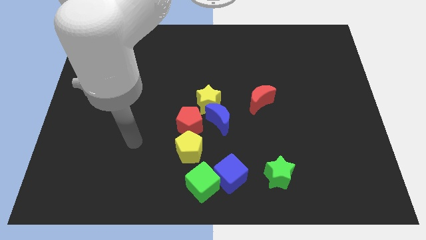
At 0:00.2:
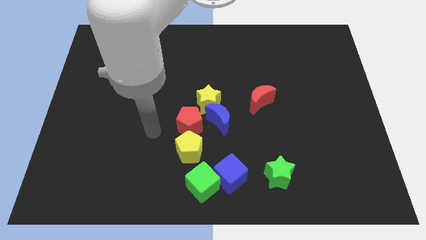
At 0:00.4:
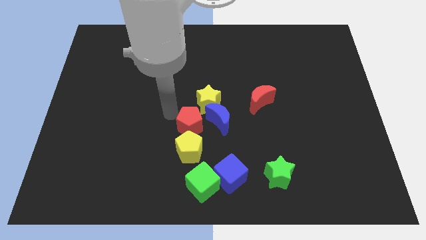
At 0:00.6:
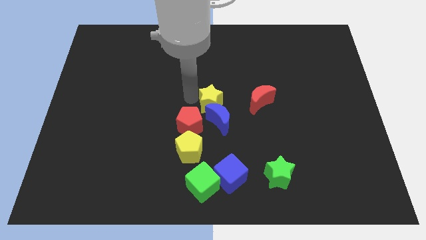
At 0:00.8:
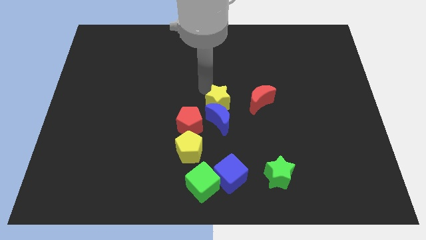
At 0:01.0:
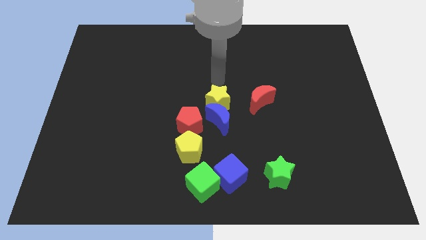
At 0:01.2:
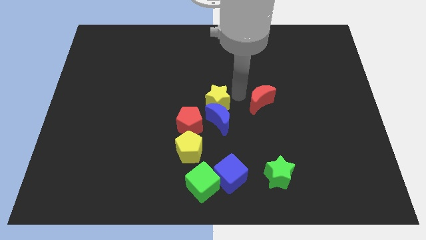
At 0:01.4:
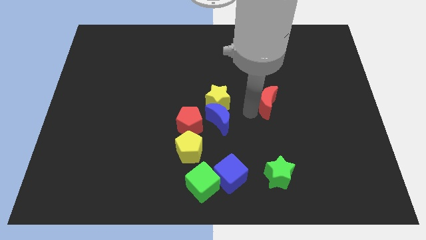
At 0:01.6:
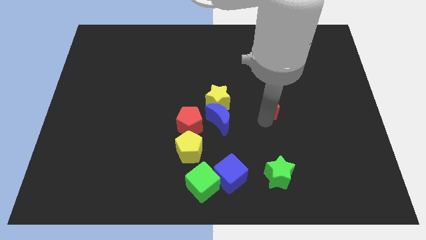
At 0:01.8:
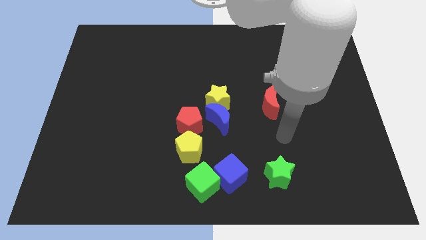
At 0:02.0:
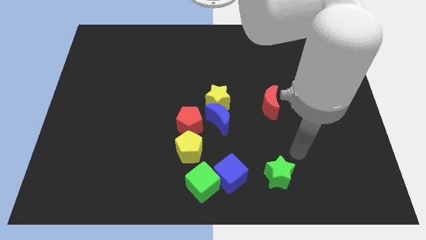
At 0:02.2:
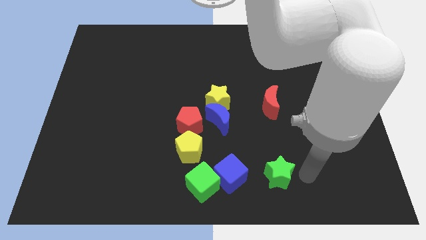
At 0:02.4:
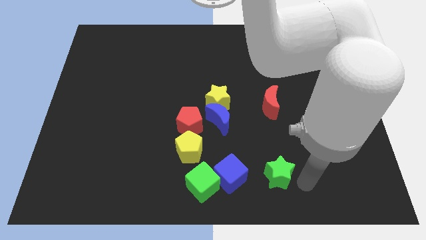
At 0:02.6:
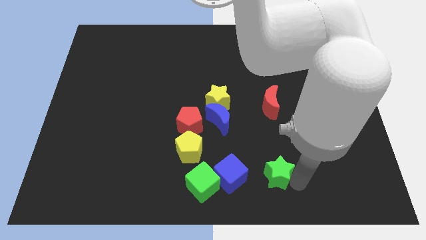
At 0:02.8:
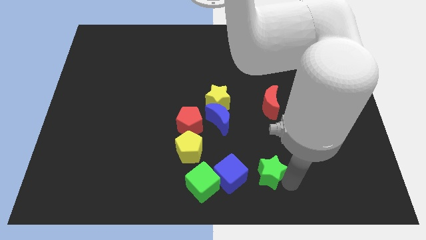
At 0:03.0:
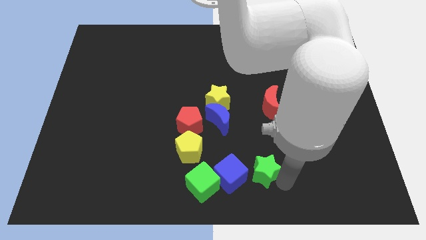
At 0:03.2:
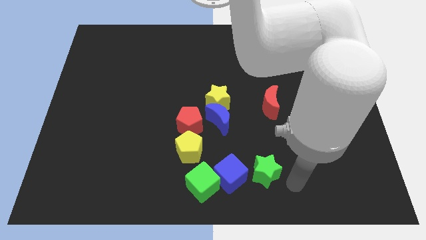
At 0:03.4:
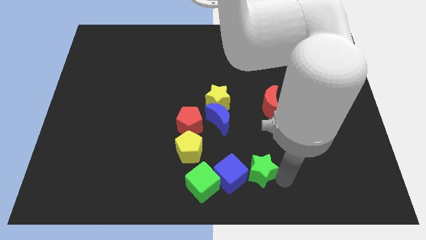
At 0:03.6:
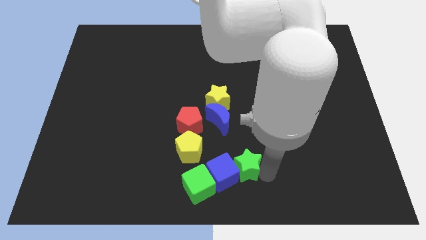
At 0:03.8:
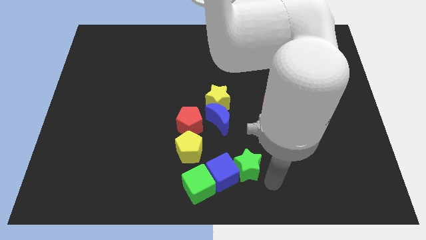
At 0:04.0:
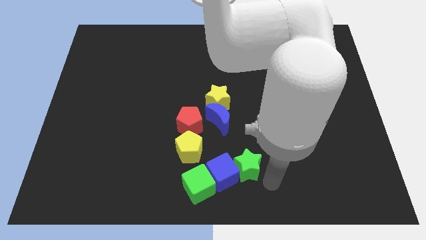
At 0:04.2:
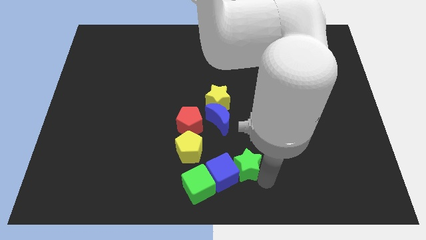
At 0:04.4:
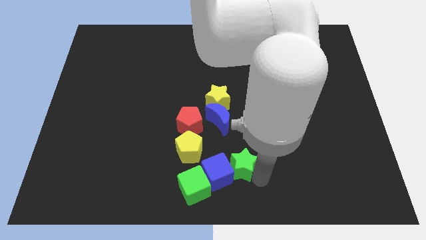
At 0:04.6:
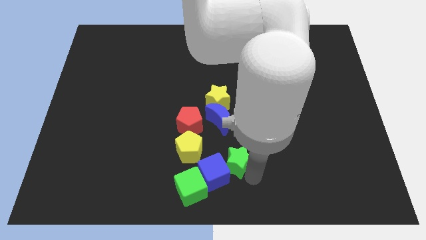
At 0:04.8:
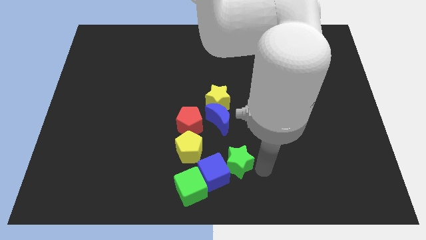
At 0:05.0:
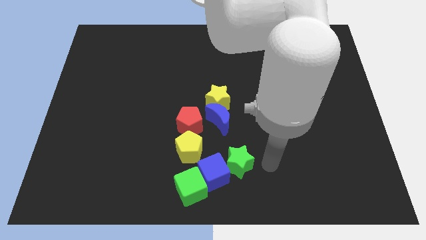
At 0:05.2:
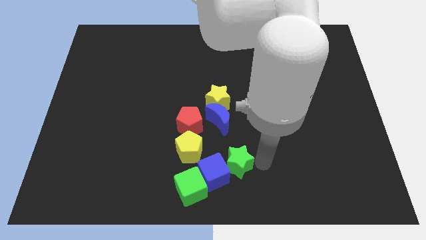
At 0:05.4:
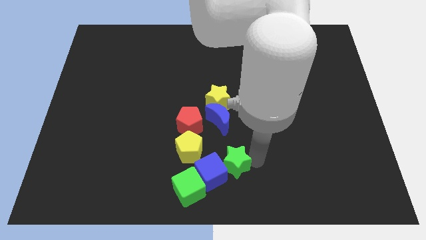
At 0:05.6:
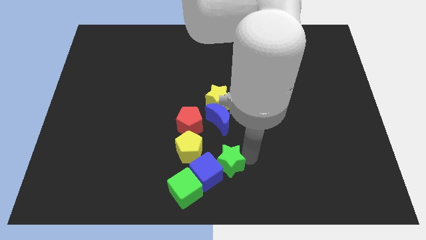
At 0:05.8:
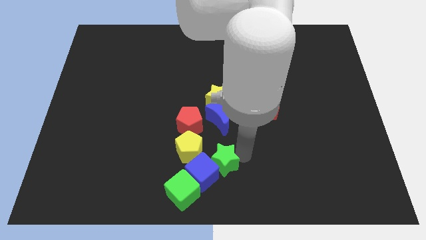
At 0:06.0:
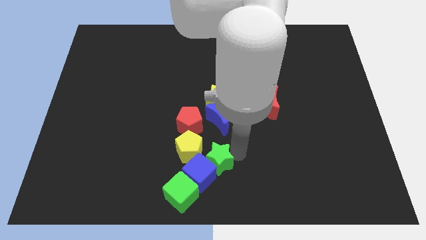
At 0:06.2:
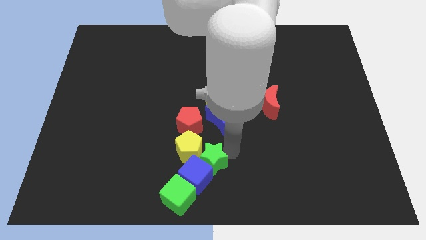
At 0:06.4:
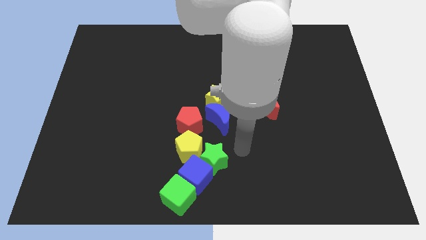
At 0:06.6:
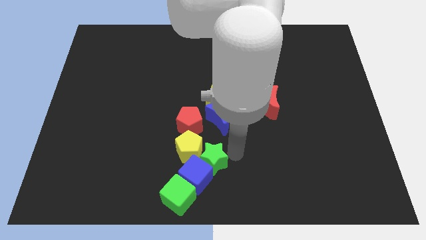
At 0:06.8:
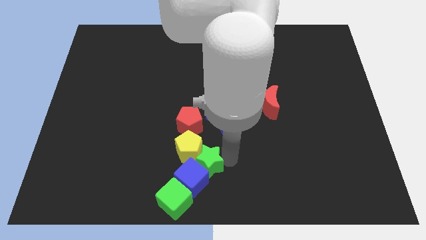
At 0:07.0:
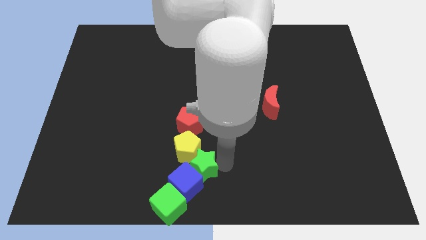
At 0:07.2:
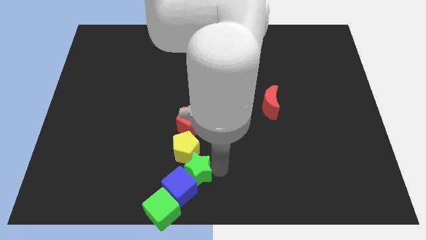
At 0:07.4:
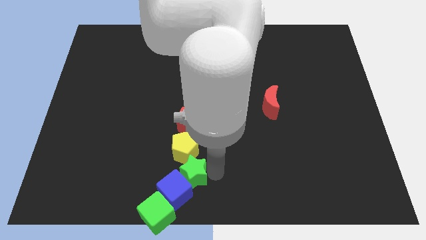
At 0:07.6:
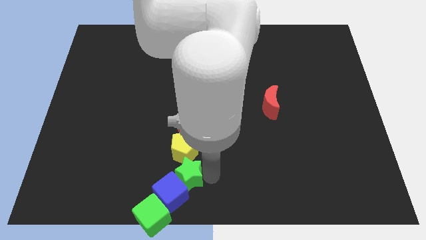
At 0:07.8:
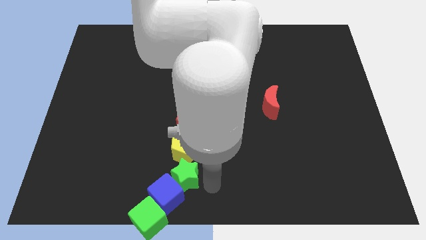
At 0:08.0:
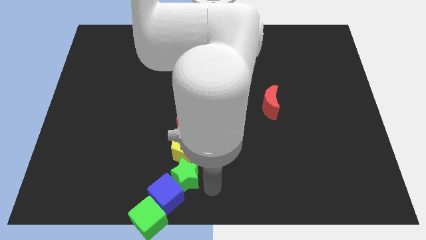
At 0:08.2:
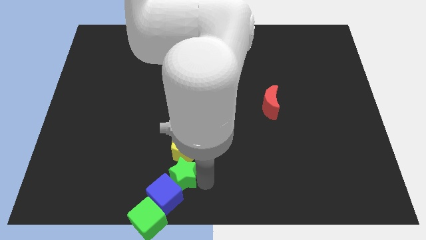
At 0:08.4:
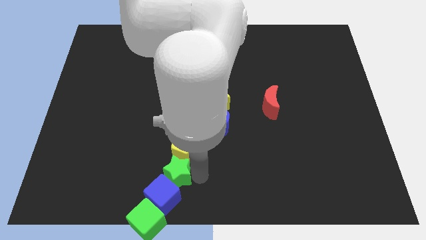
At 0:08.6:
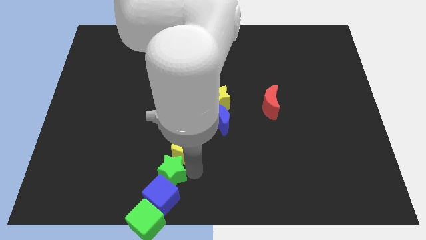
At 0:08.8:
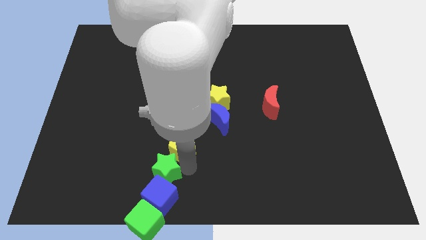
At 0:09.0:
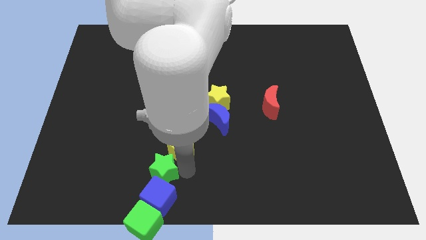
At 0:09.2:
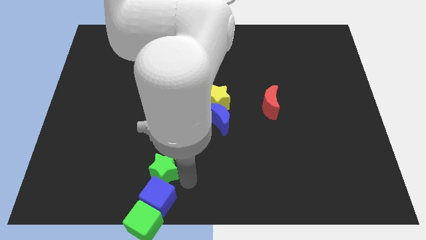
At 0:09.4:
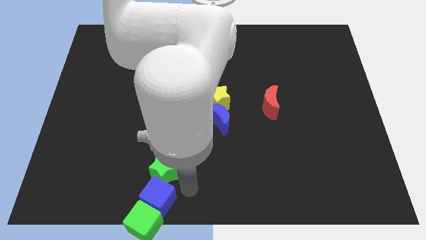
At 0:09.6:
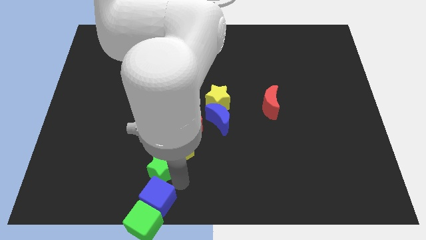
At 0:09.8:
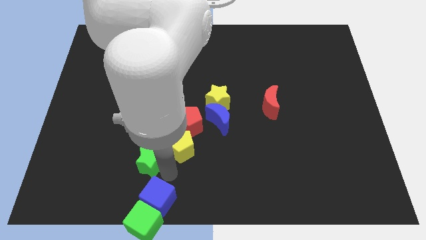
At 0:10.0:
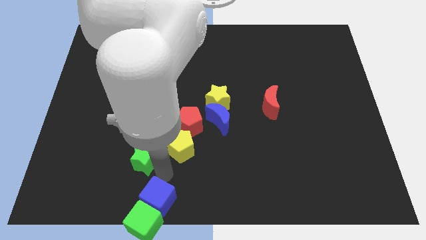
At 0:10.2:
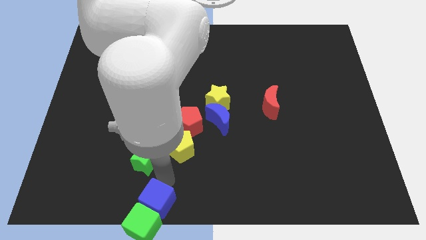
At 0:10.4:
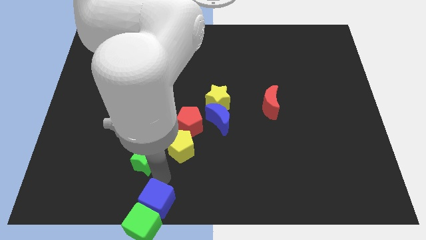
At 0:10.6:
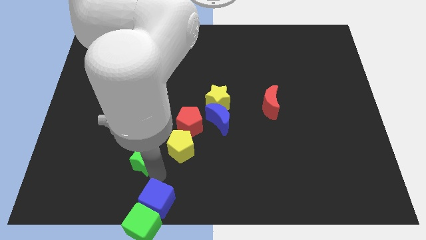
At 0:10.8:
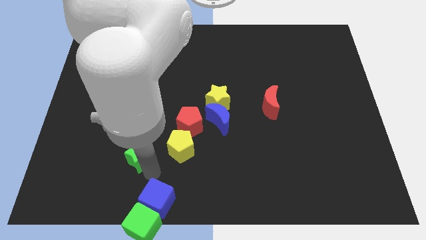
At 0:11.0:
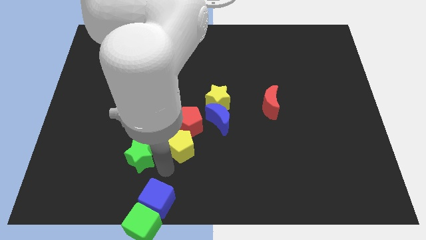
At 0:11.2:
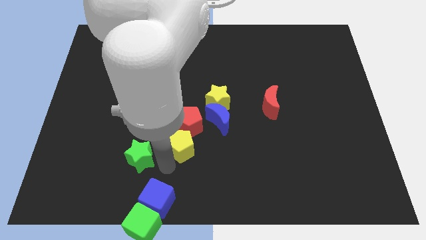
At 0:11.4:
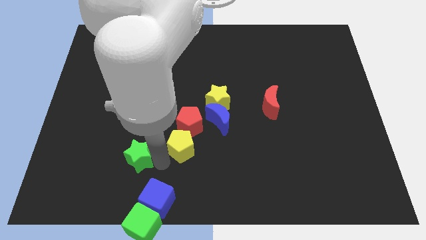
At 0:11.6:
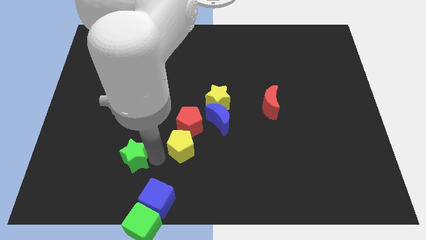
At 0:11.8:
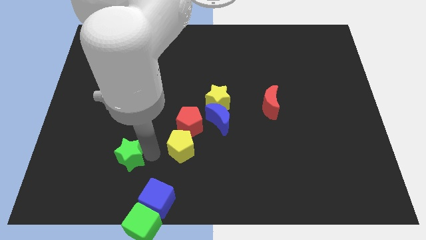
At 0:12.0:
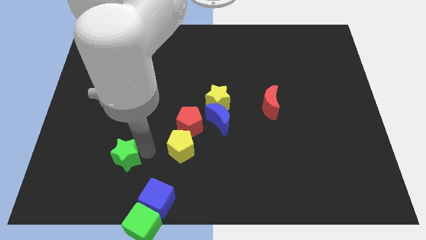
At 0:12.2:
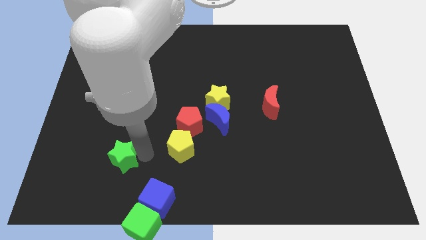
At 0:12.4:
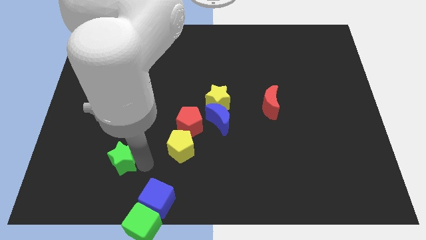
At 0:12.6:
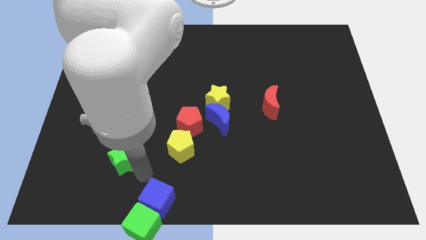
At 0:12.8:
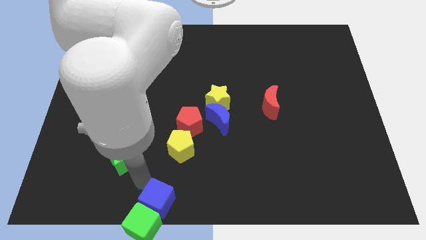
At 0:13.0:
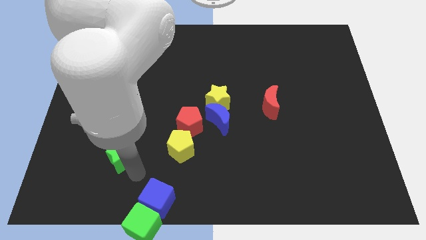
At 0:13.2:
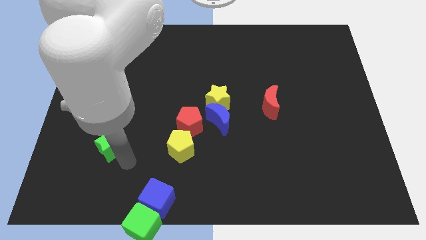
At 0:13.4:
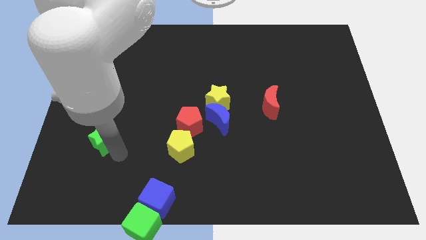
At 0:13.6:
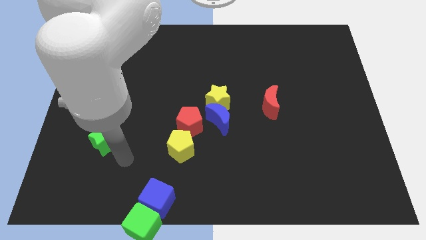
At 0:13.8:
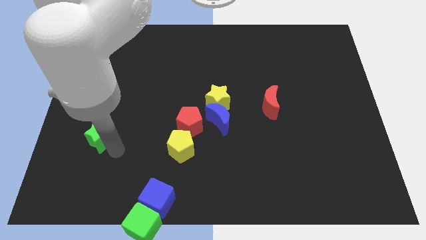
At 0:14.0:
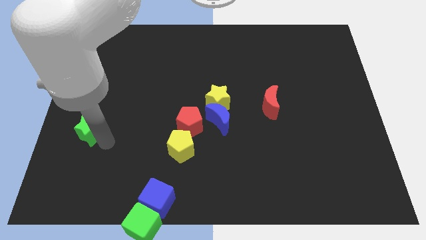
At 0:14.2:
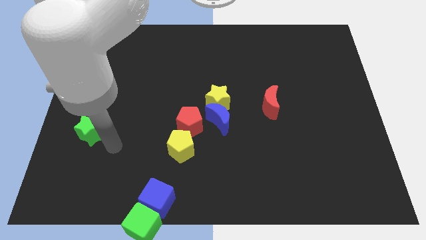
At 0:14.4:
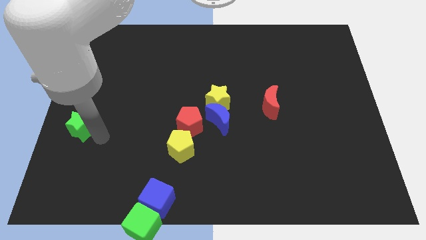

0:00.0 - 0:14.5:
push the green star to the left side of the board
